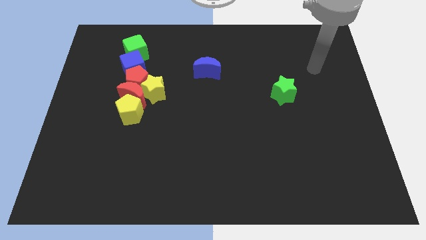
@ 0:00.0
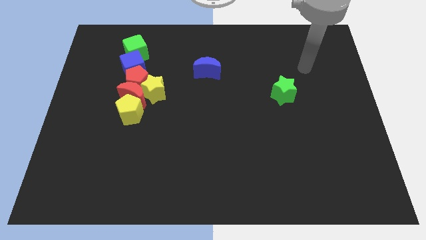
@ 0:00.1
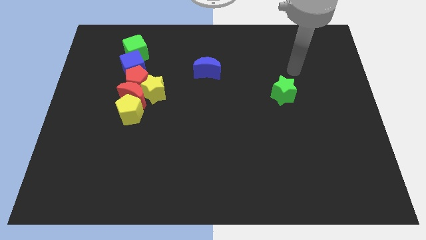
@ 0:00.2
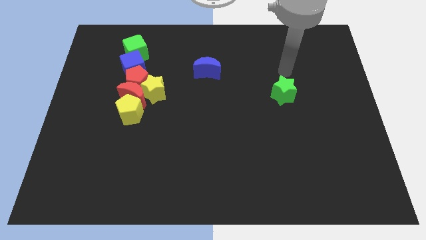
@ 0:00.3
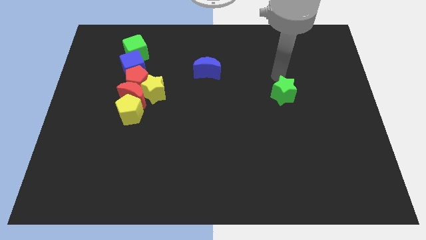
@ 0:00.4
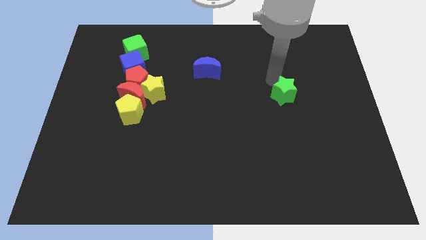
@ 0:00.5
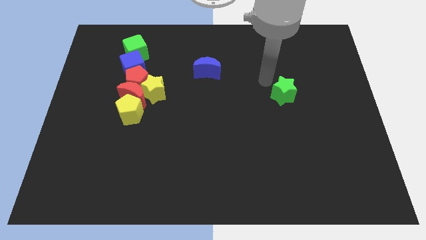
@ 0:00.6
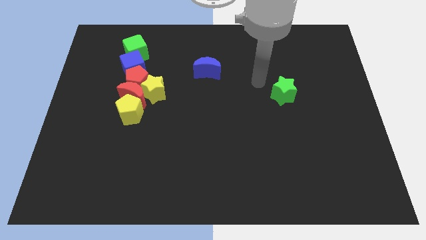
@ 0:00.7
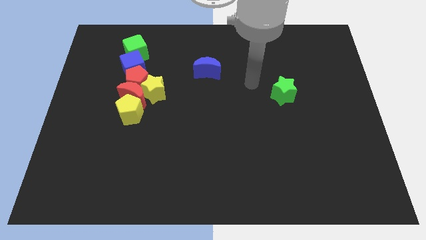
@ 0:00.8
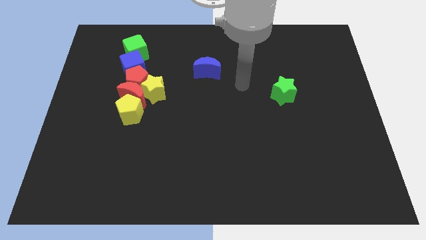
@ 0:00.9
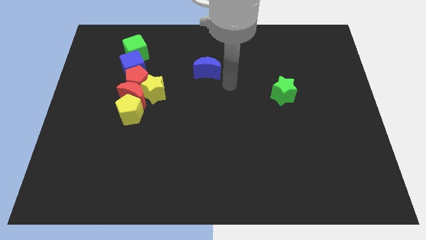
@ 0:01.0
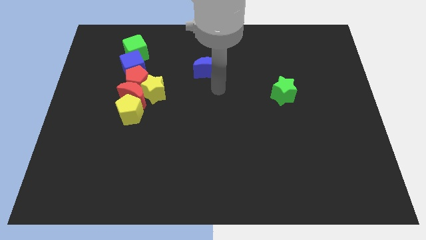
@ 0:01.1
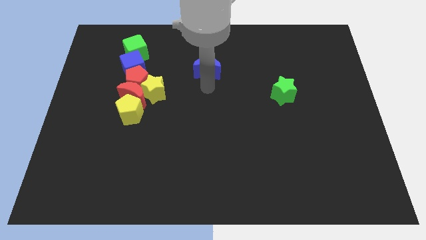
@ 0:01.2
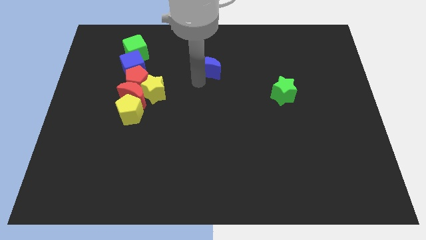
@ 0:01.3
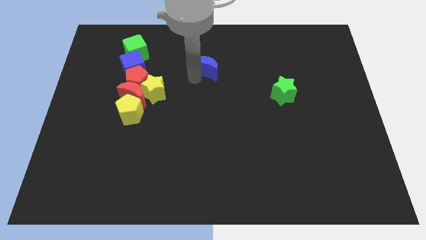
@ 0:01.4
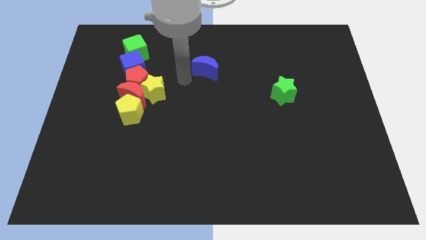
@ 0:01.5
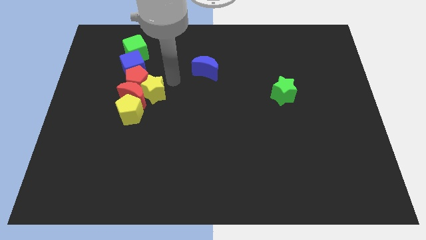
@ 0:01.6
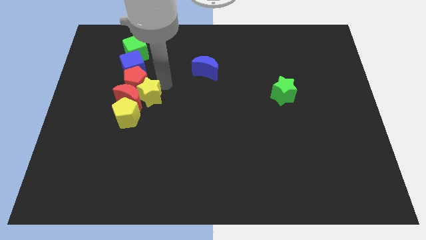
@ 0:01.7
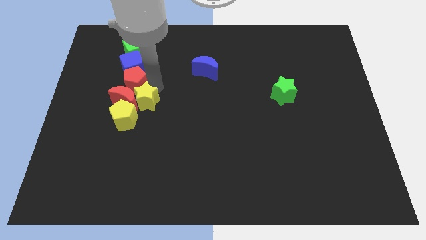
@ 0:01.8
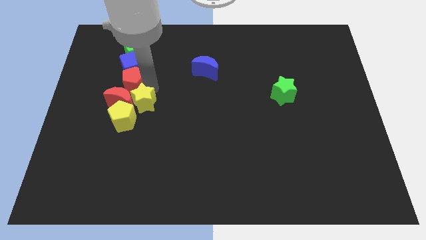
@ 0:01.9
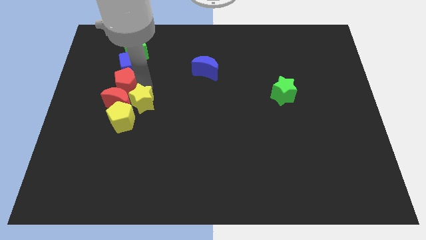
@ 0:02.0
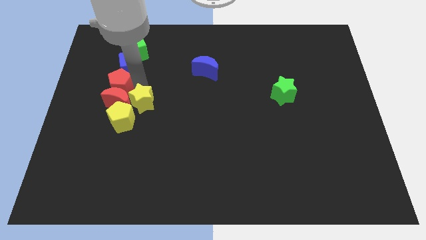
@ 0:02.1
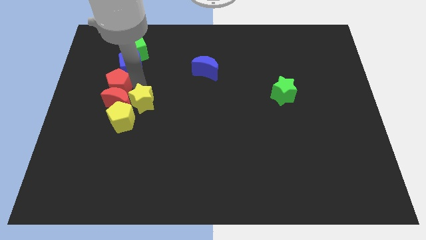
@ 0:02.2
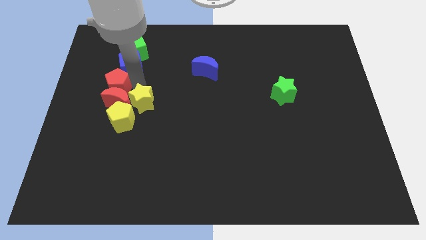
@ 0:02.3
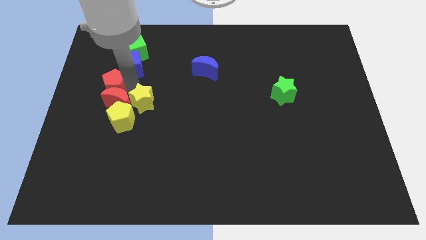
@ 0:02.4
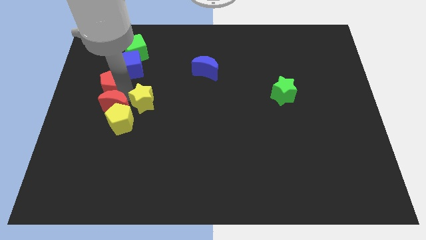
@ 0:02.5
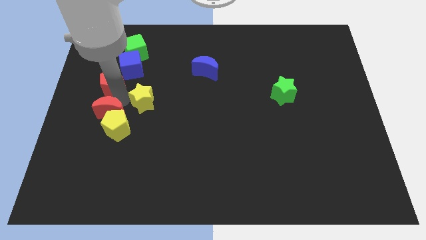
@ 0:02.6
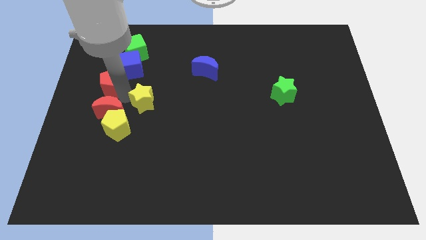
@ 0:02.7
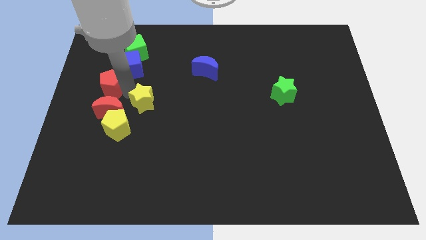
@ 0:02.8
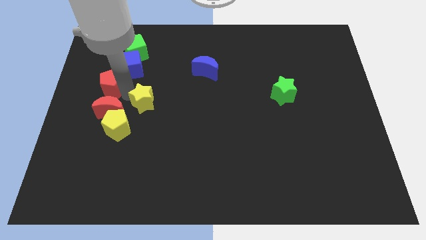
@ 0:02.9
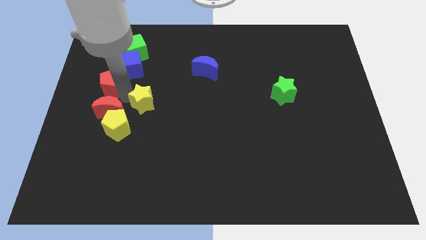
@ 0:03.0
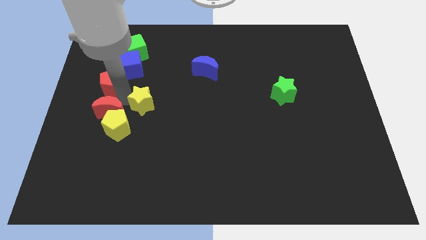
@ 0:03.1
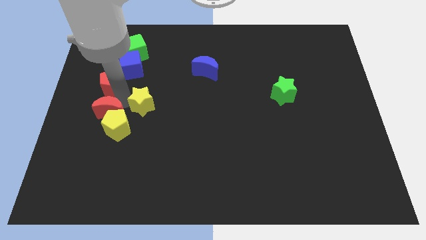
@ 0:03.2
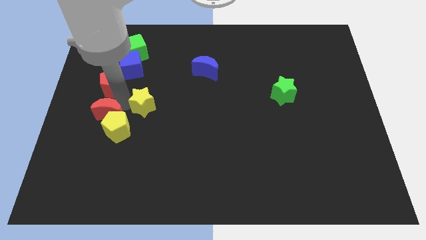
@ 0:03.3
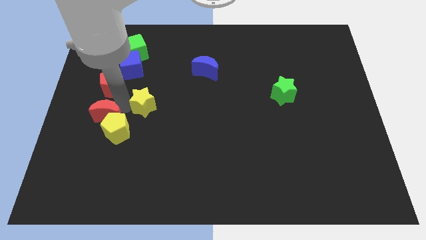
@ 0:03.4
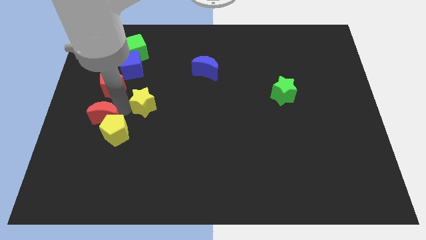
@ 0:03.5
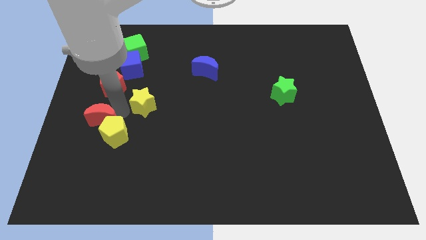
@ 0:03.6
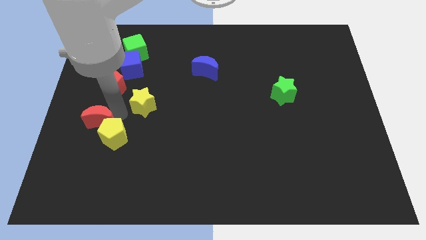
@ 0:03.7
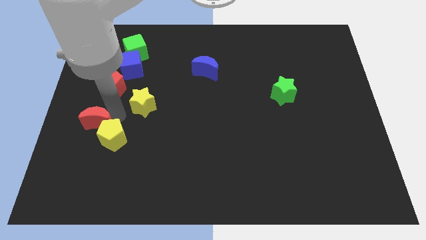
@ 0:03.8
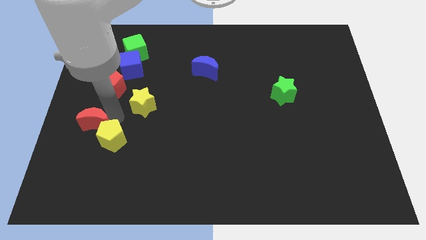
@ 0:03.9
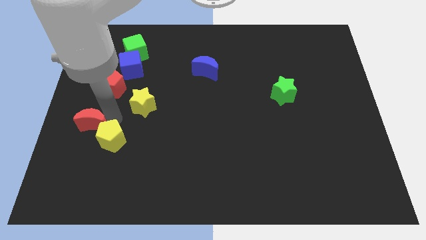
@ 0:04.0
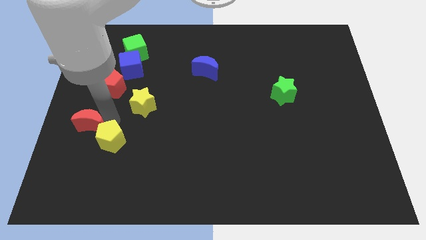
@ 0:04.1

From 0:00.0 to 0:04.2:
pull the red moon apart from the group of blocks

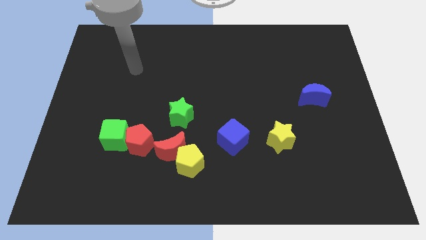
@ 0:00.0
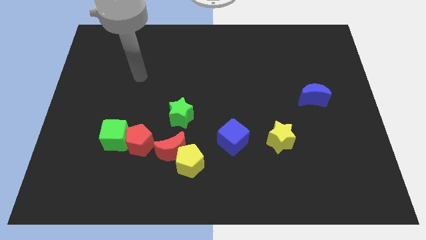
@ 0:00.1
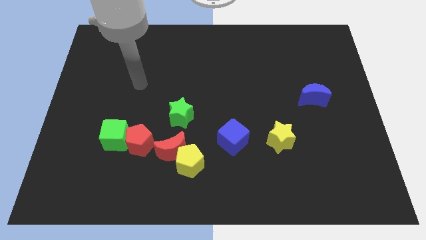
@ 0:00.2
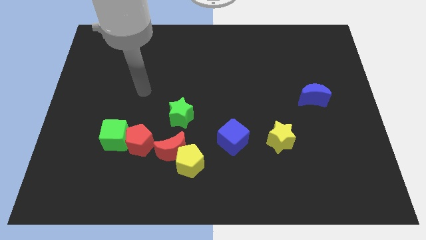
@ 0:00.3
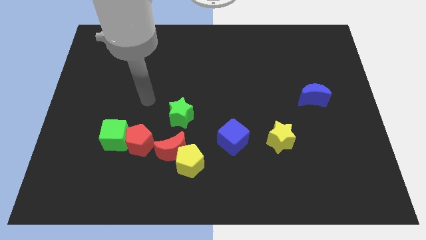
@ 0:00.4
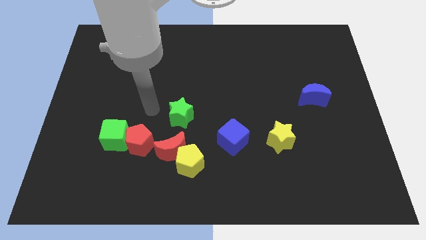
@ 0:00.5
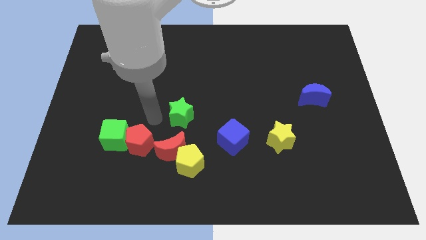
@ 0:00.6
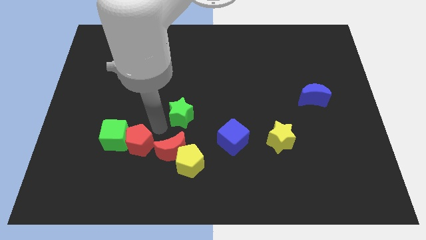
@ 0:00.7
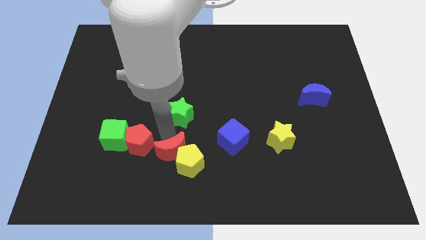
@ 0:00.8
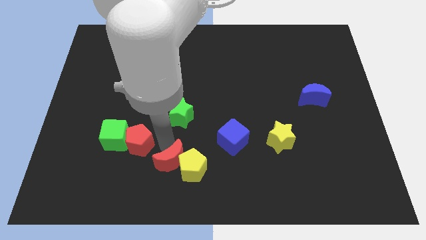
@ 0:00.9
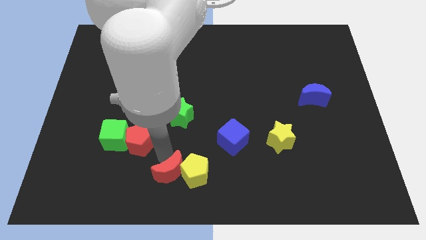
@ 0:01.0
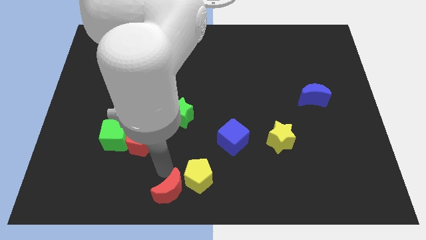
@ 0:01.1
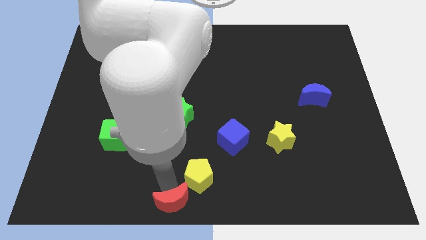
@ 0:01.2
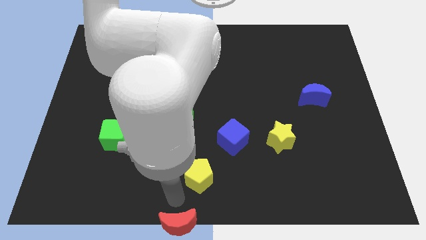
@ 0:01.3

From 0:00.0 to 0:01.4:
move the yellow pentagon away from the red moon

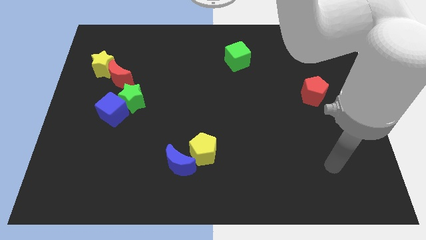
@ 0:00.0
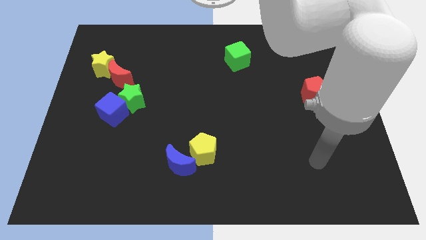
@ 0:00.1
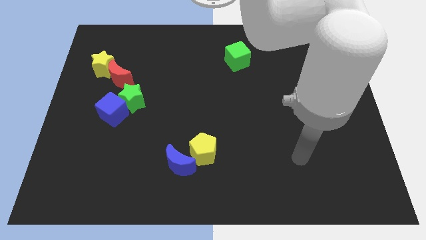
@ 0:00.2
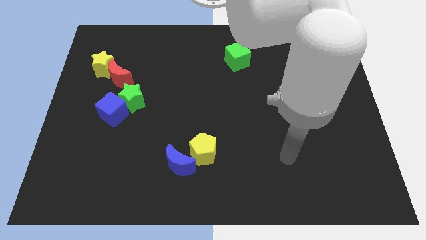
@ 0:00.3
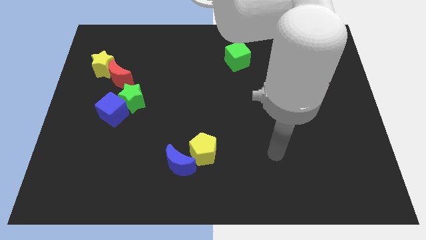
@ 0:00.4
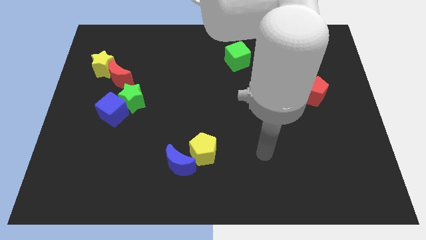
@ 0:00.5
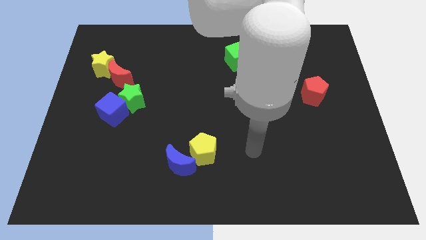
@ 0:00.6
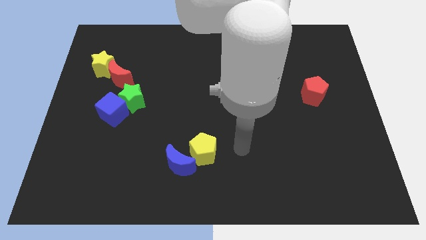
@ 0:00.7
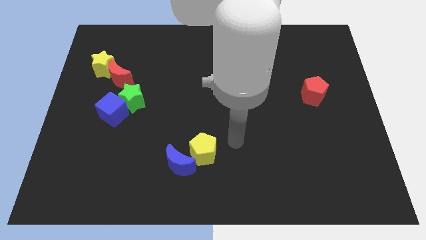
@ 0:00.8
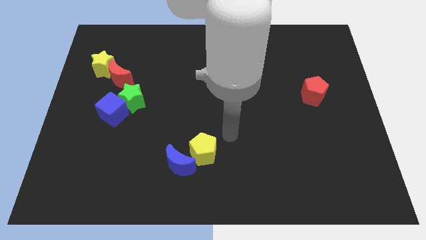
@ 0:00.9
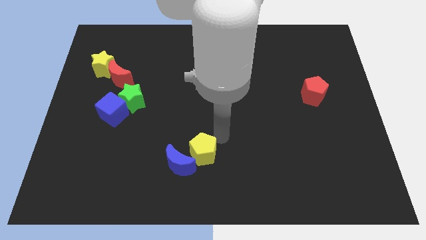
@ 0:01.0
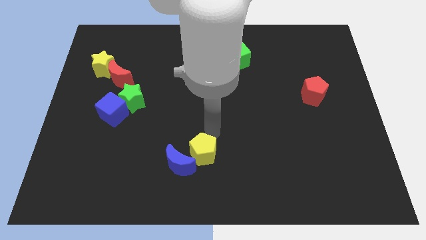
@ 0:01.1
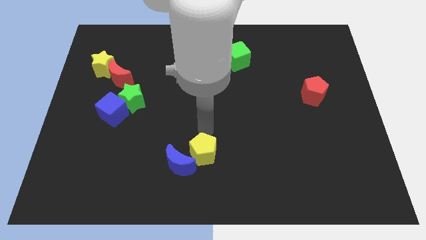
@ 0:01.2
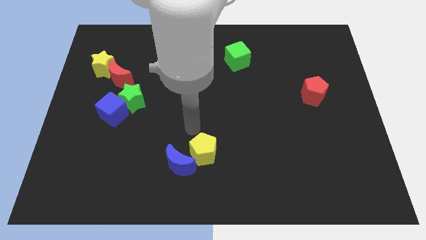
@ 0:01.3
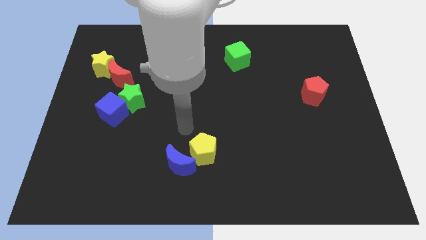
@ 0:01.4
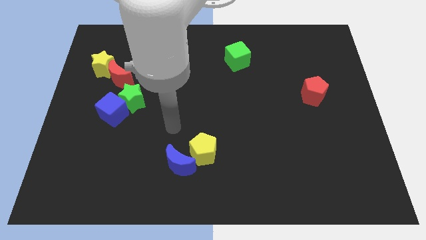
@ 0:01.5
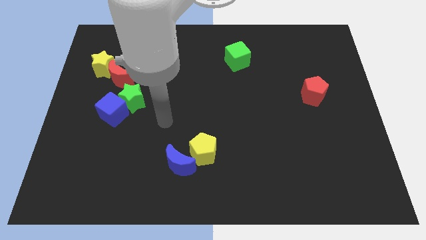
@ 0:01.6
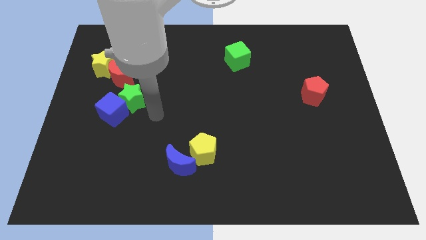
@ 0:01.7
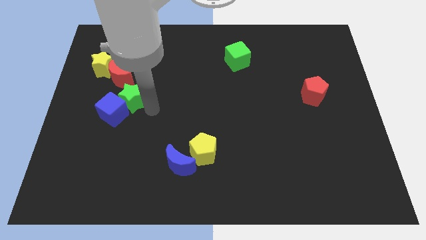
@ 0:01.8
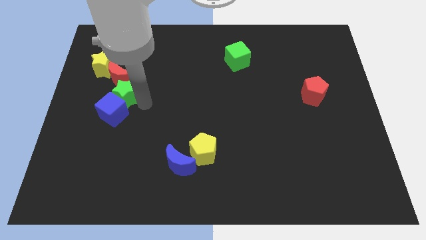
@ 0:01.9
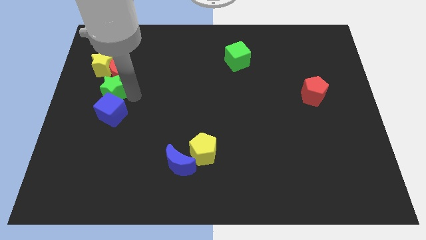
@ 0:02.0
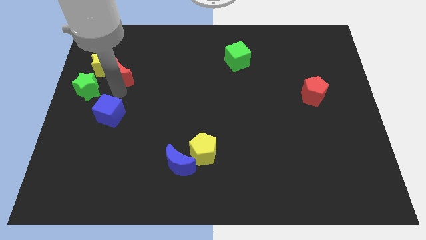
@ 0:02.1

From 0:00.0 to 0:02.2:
pull the blue cube apart from the green star

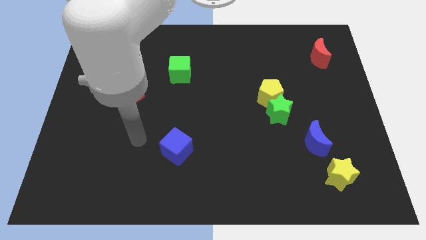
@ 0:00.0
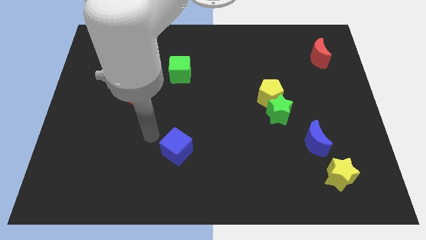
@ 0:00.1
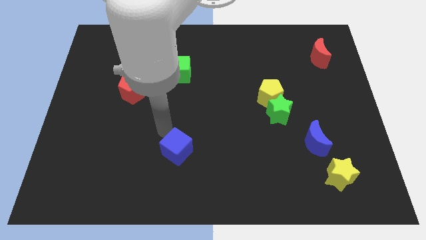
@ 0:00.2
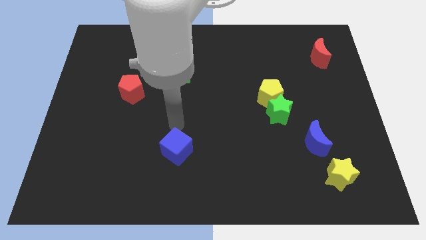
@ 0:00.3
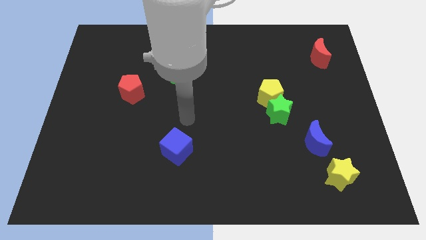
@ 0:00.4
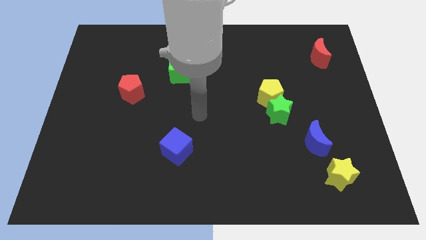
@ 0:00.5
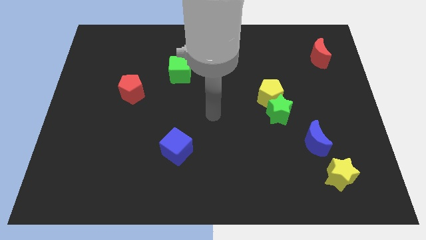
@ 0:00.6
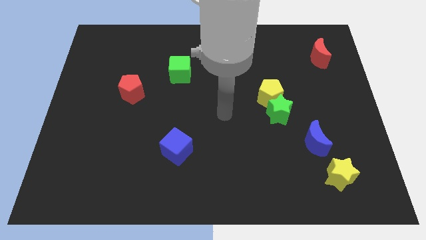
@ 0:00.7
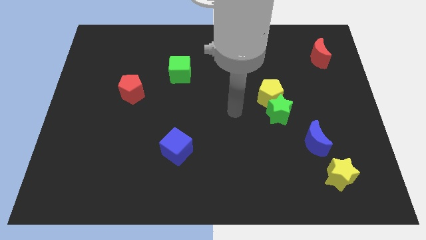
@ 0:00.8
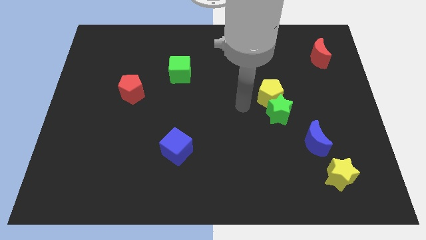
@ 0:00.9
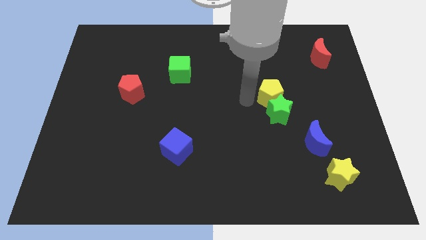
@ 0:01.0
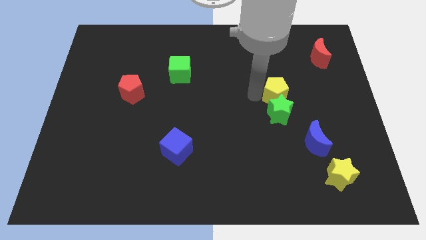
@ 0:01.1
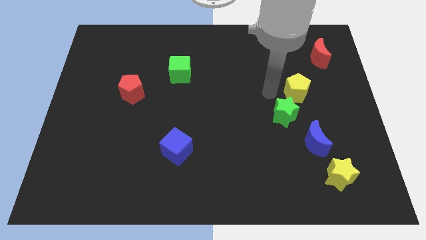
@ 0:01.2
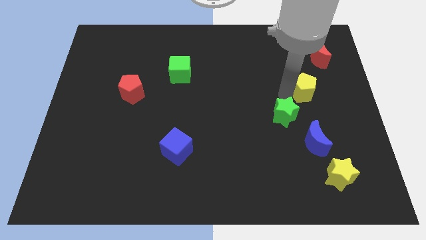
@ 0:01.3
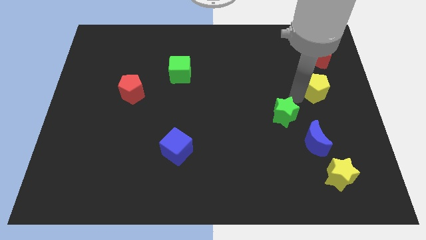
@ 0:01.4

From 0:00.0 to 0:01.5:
move the green star away from the yellow pentagon
